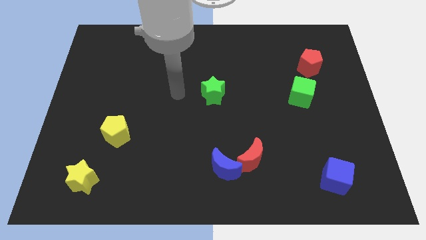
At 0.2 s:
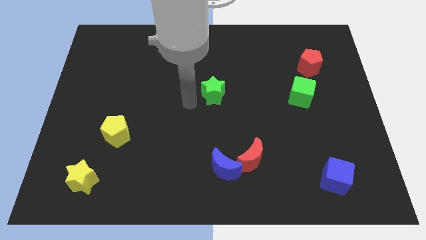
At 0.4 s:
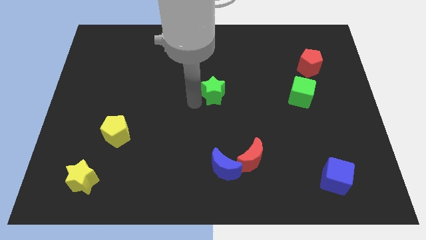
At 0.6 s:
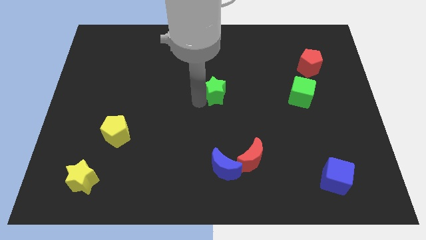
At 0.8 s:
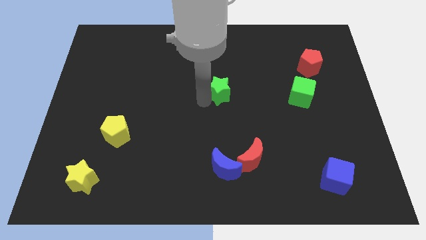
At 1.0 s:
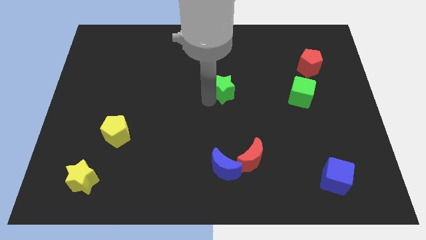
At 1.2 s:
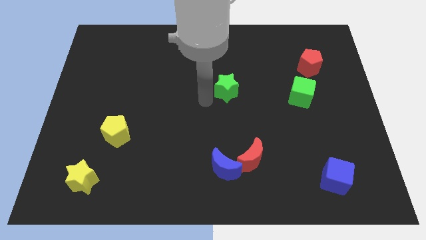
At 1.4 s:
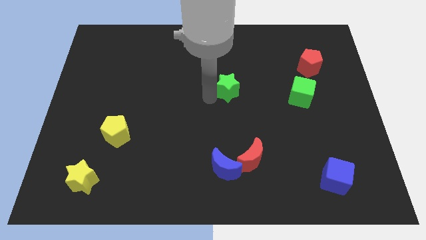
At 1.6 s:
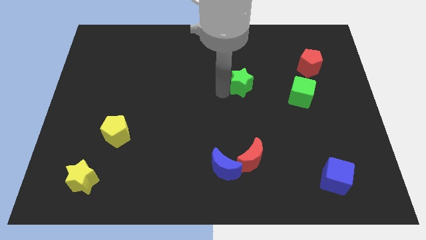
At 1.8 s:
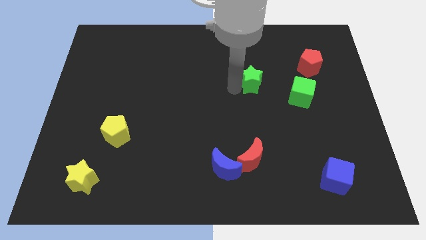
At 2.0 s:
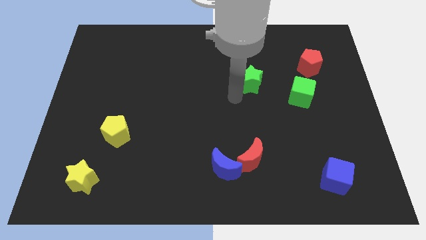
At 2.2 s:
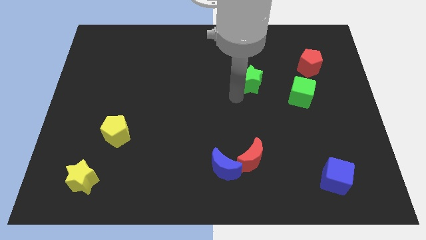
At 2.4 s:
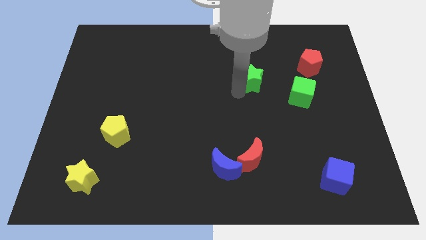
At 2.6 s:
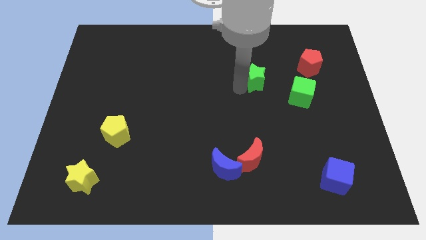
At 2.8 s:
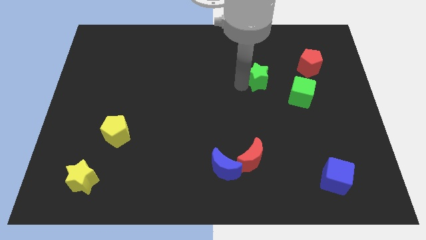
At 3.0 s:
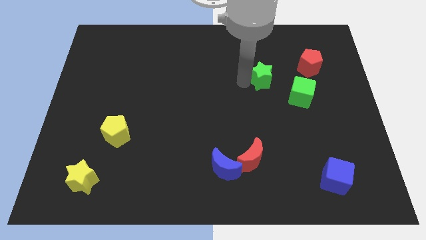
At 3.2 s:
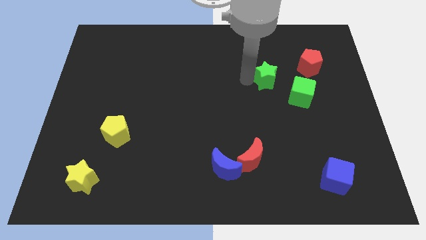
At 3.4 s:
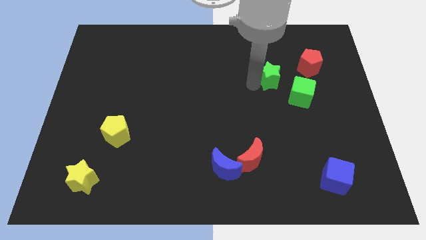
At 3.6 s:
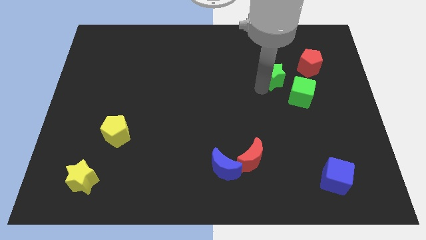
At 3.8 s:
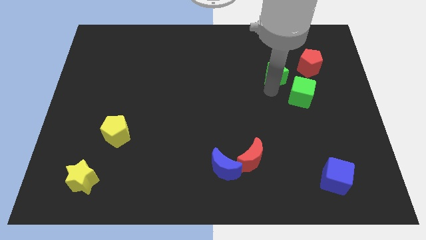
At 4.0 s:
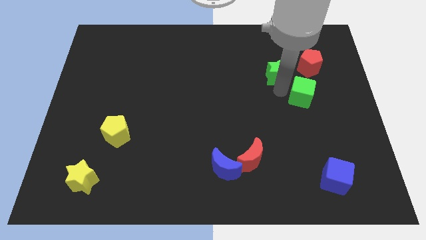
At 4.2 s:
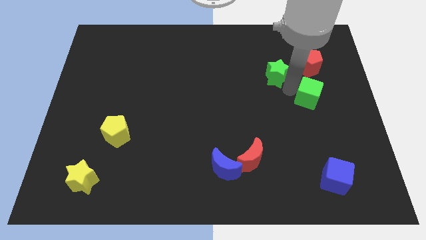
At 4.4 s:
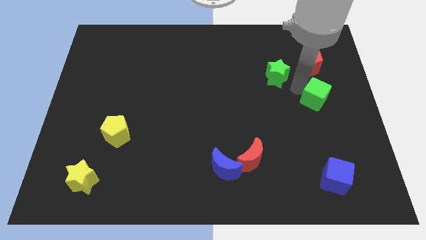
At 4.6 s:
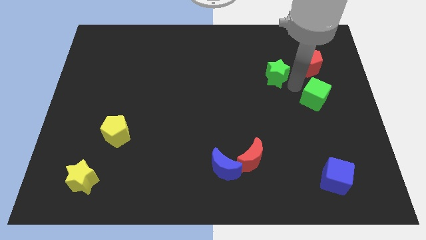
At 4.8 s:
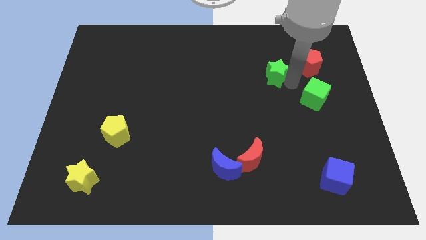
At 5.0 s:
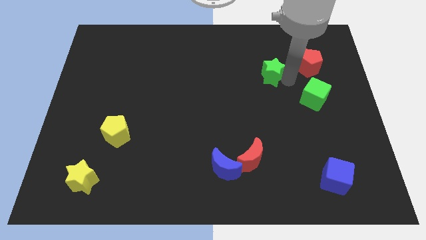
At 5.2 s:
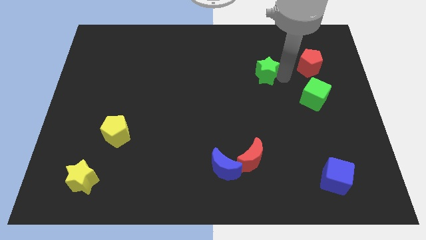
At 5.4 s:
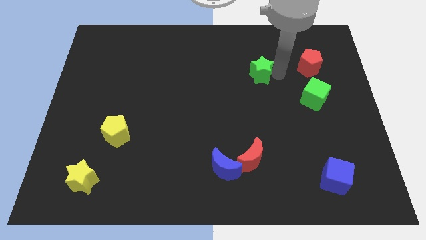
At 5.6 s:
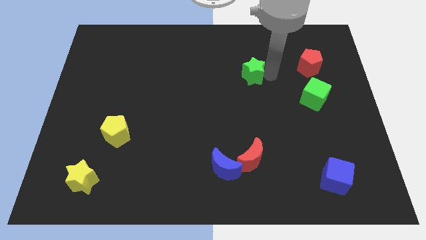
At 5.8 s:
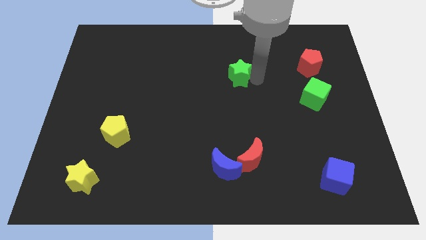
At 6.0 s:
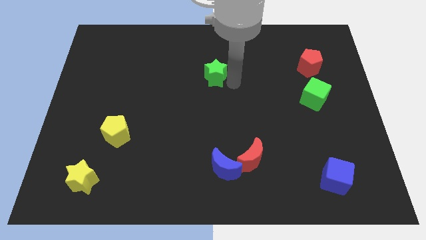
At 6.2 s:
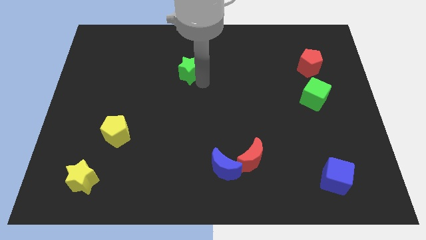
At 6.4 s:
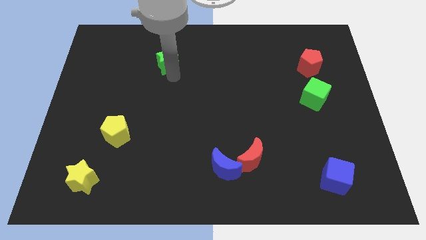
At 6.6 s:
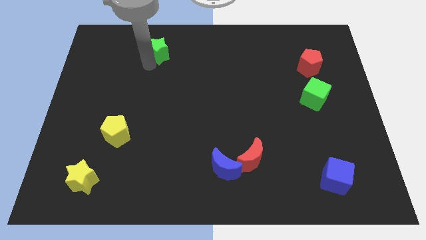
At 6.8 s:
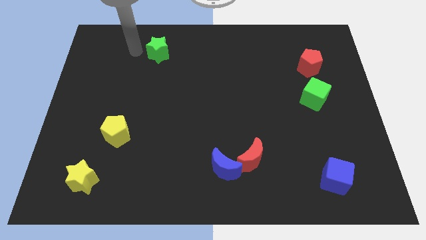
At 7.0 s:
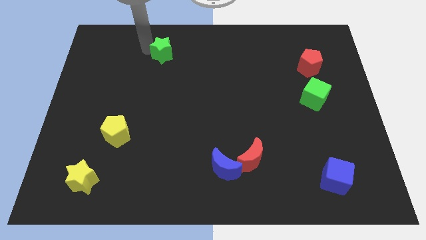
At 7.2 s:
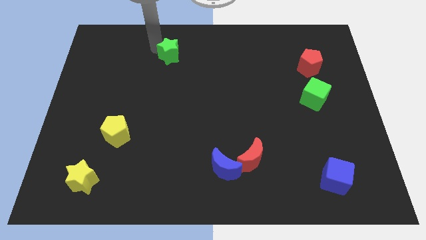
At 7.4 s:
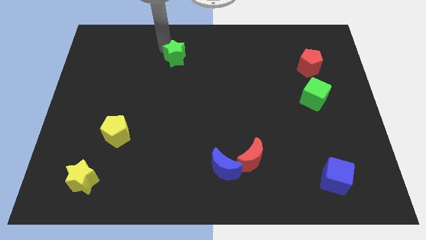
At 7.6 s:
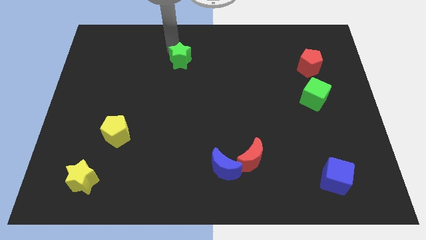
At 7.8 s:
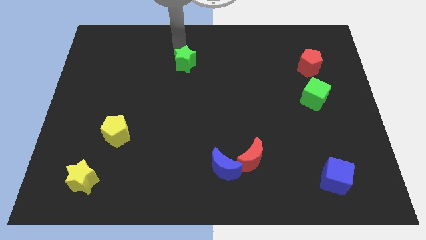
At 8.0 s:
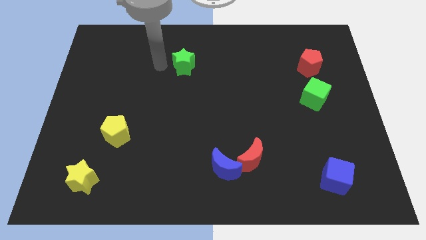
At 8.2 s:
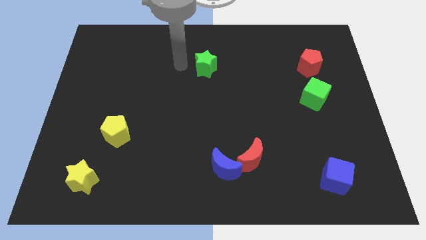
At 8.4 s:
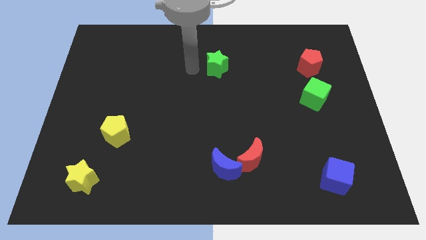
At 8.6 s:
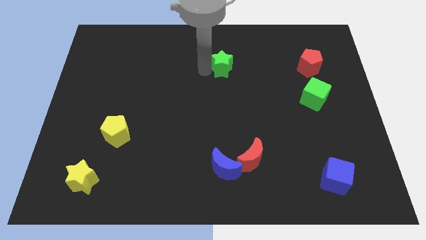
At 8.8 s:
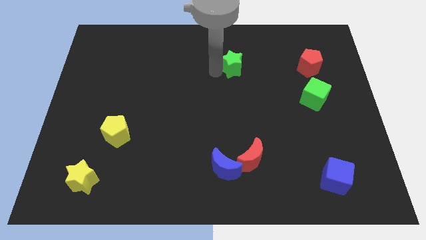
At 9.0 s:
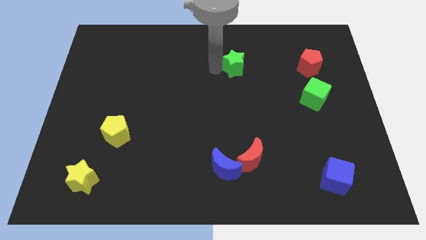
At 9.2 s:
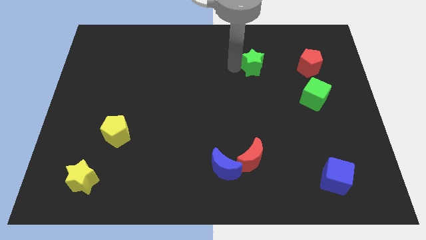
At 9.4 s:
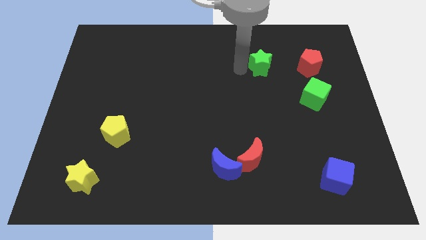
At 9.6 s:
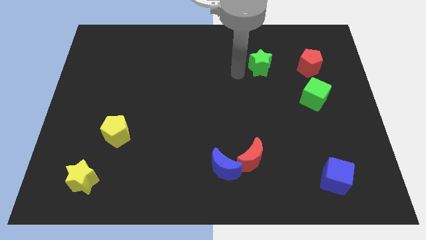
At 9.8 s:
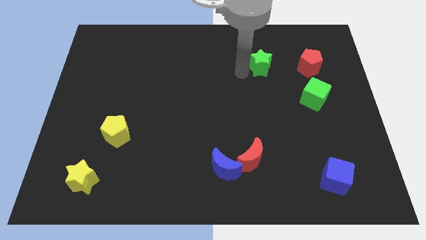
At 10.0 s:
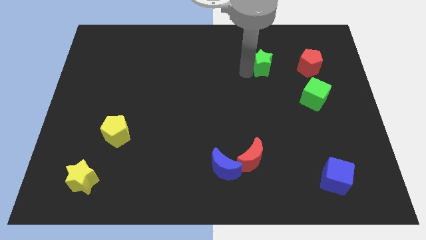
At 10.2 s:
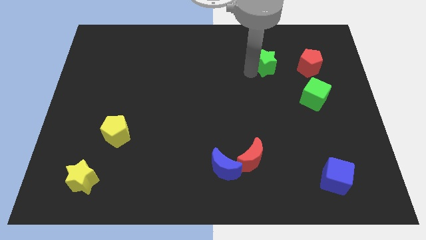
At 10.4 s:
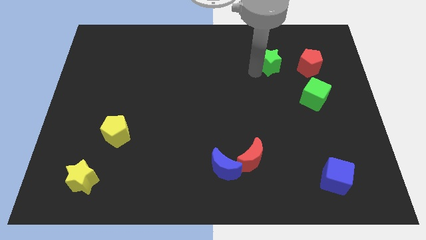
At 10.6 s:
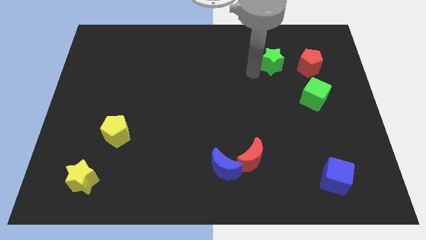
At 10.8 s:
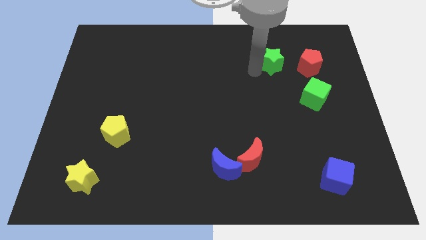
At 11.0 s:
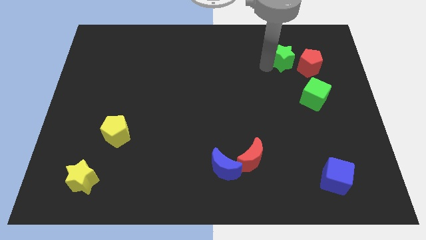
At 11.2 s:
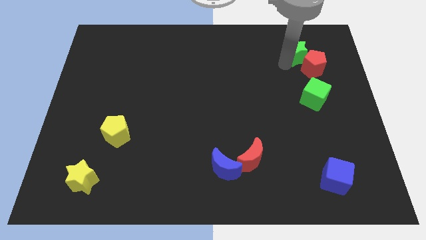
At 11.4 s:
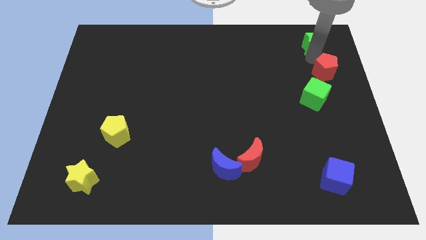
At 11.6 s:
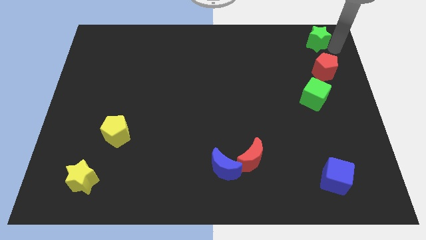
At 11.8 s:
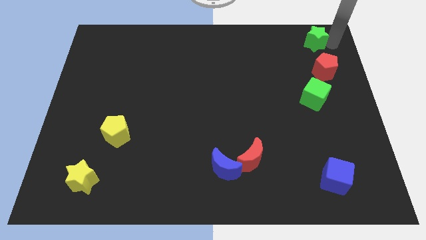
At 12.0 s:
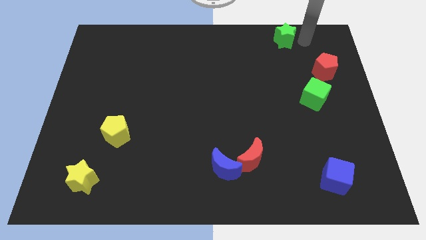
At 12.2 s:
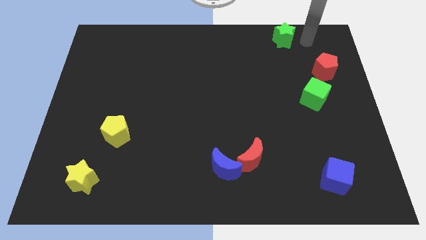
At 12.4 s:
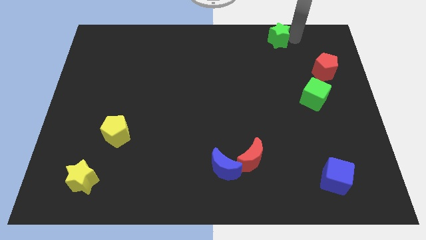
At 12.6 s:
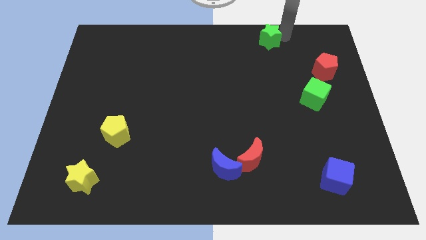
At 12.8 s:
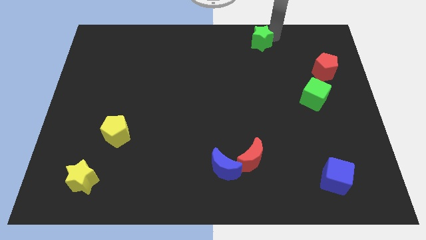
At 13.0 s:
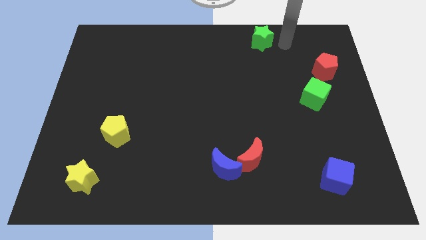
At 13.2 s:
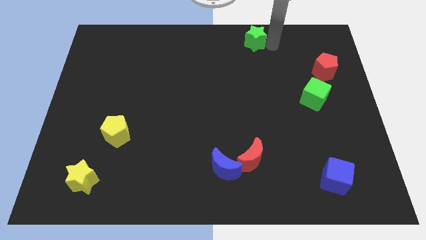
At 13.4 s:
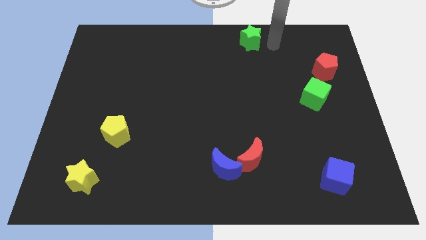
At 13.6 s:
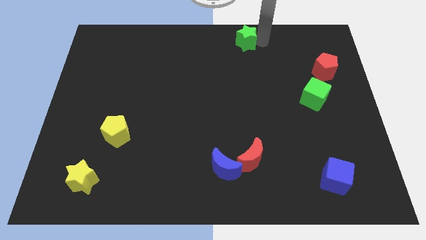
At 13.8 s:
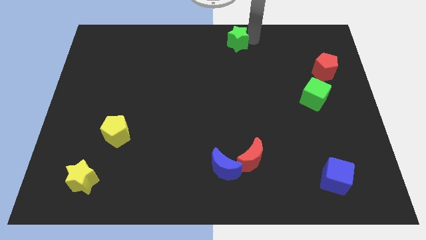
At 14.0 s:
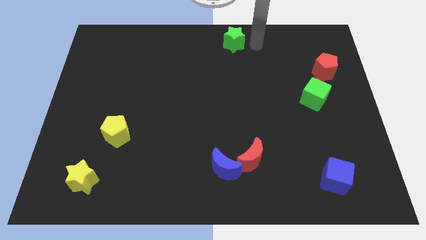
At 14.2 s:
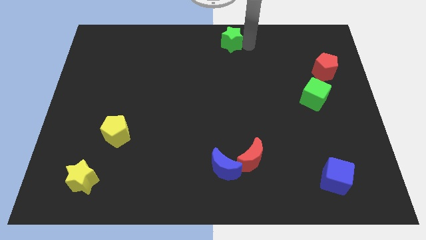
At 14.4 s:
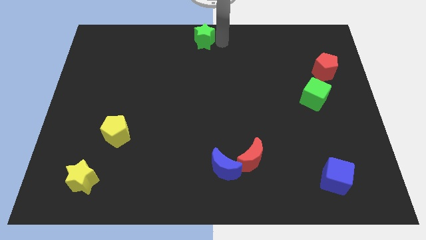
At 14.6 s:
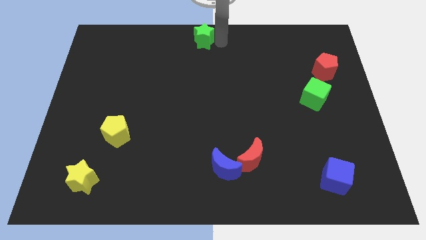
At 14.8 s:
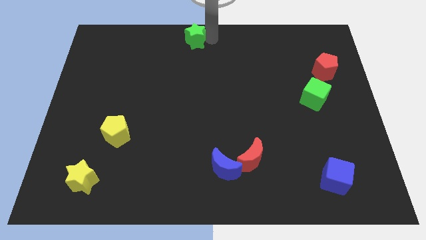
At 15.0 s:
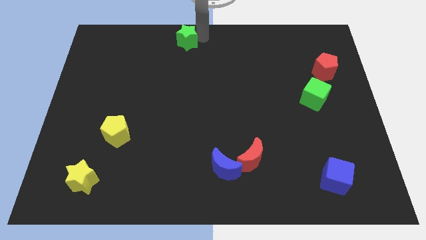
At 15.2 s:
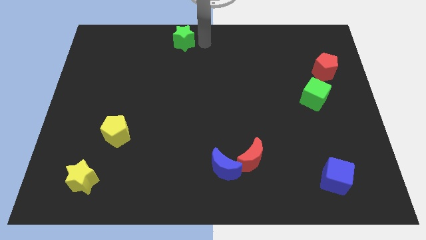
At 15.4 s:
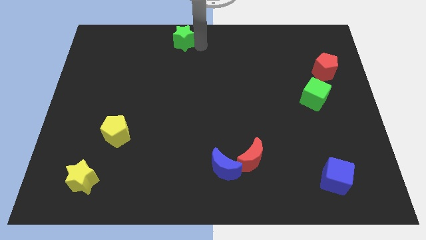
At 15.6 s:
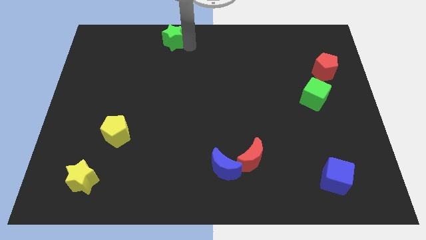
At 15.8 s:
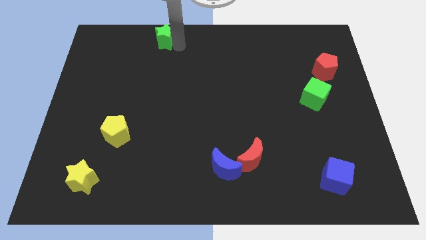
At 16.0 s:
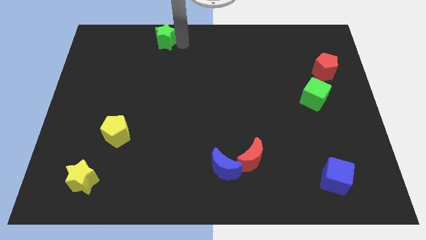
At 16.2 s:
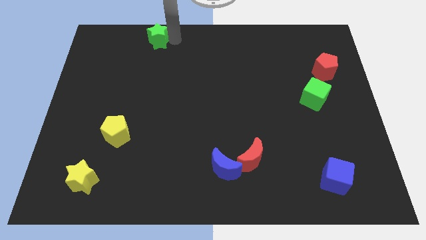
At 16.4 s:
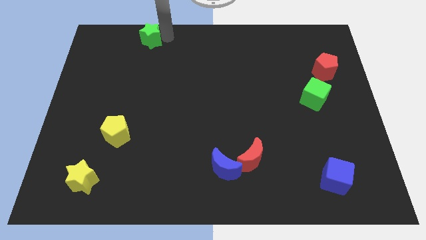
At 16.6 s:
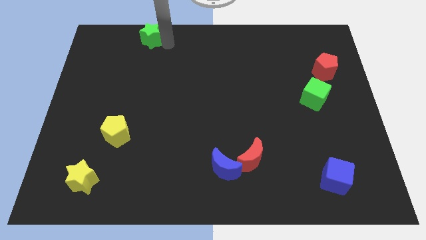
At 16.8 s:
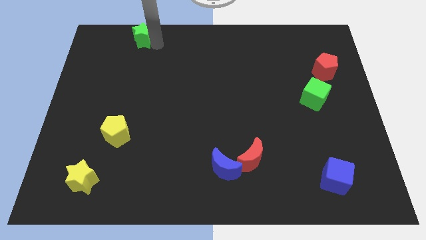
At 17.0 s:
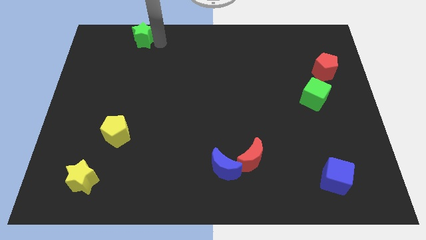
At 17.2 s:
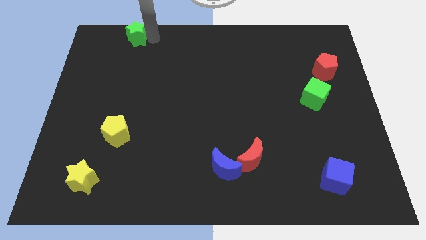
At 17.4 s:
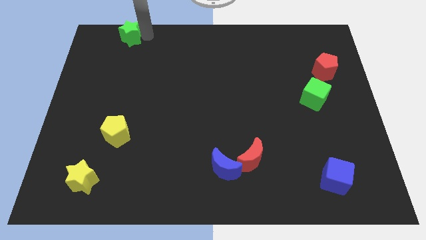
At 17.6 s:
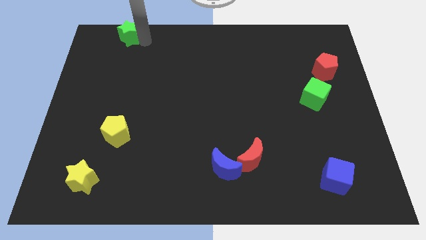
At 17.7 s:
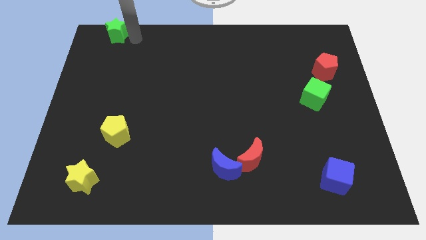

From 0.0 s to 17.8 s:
move the green star to the top left
